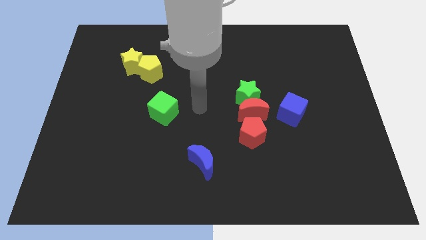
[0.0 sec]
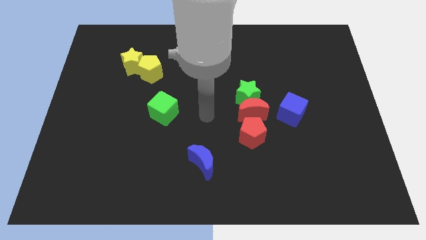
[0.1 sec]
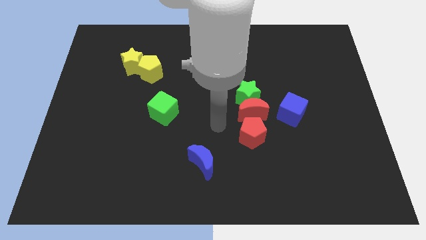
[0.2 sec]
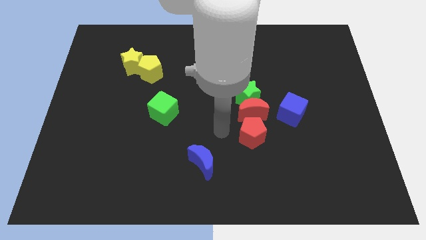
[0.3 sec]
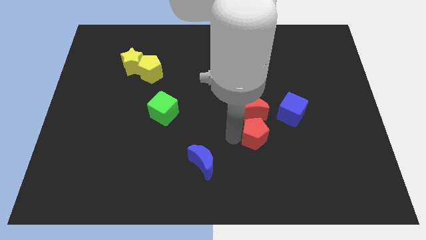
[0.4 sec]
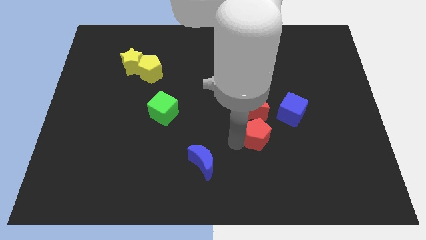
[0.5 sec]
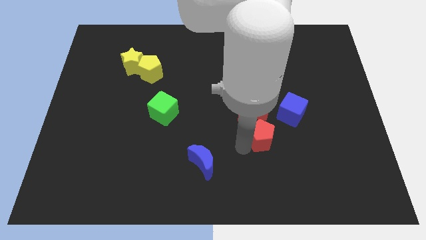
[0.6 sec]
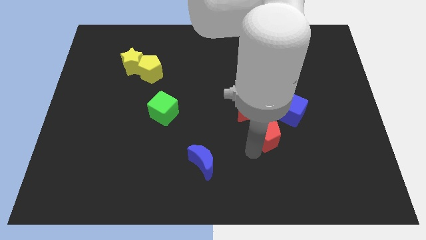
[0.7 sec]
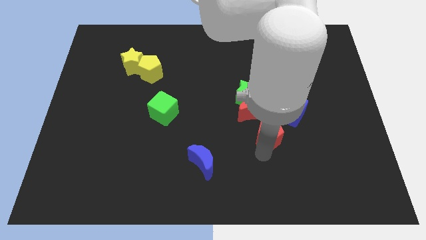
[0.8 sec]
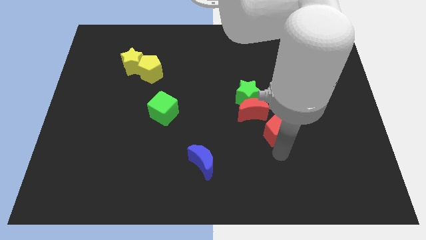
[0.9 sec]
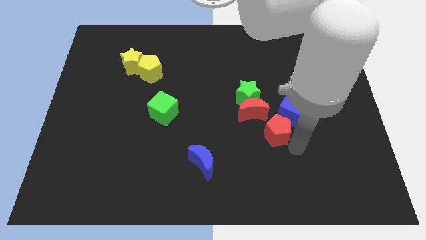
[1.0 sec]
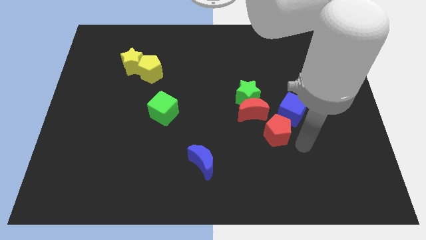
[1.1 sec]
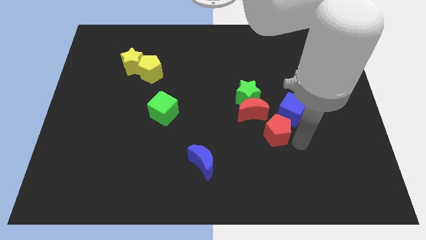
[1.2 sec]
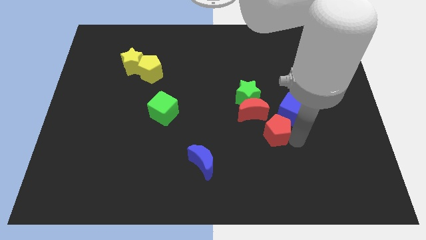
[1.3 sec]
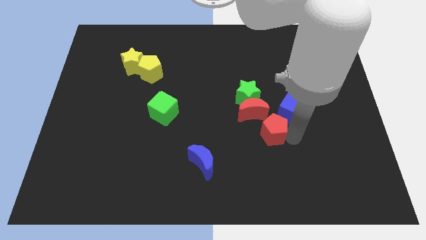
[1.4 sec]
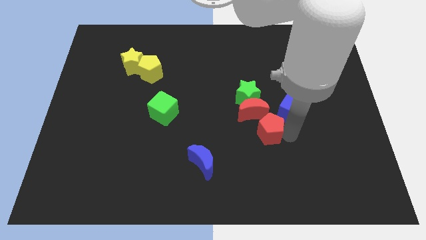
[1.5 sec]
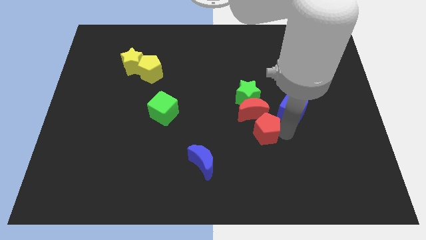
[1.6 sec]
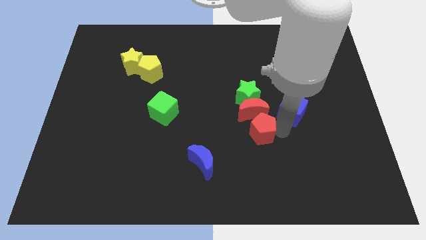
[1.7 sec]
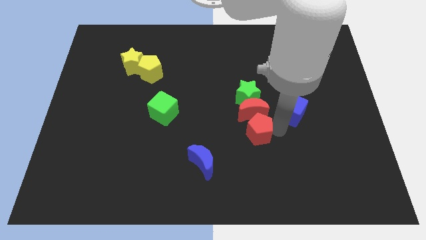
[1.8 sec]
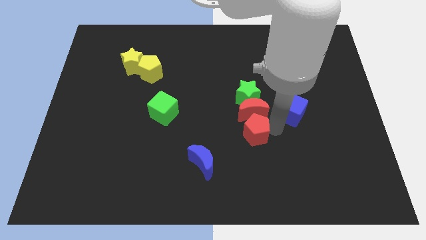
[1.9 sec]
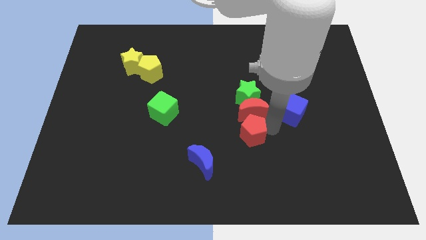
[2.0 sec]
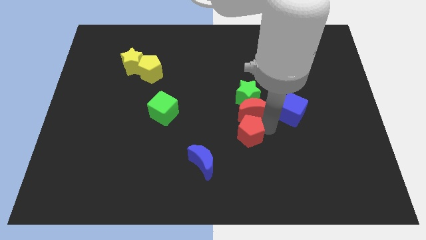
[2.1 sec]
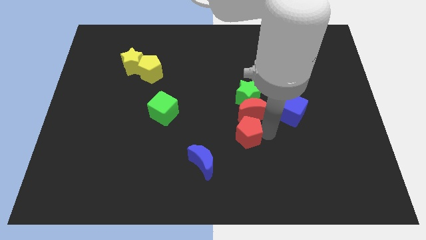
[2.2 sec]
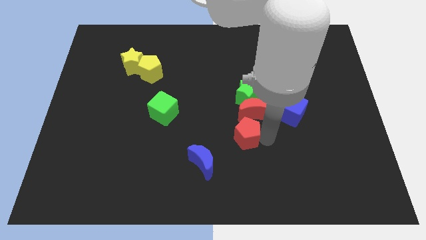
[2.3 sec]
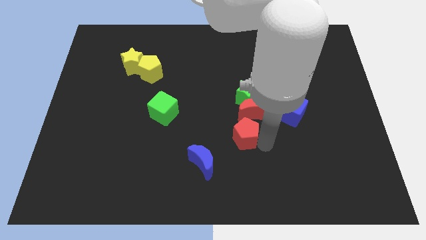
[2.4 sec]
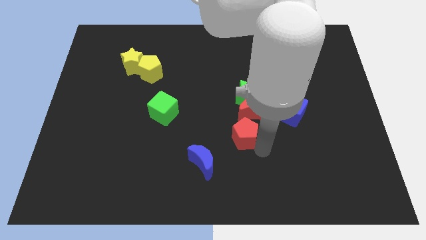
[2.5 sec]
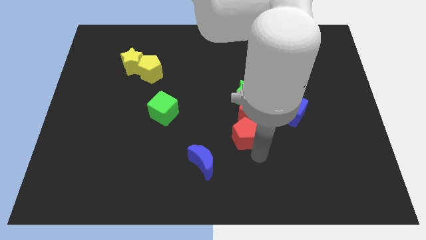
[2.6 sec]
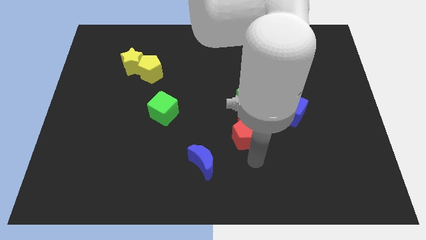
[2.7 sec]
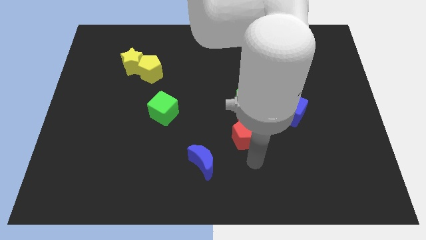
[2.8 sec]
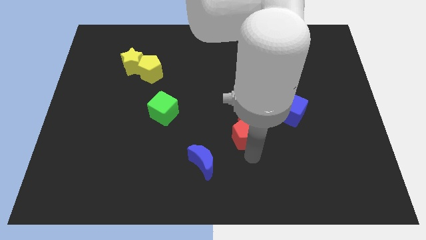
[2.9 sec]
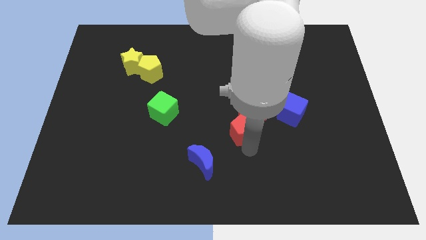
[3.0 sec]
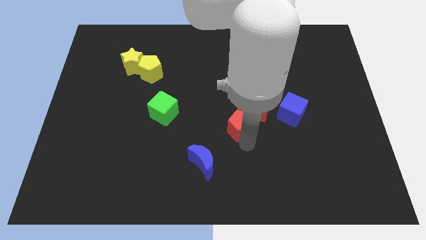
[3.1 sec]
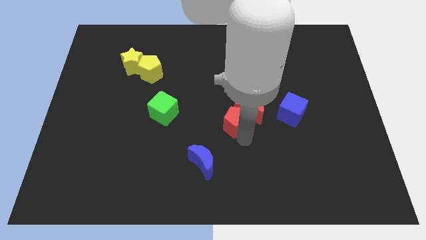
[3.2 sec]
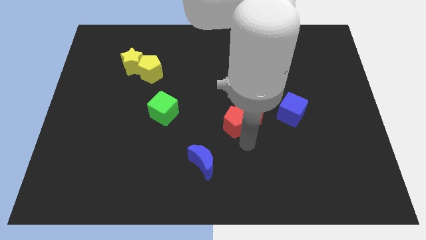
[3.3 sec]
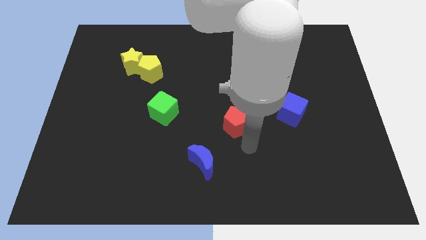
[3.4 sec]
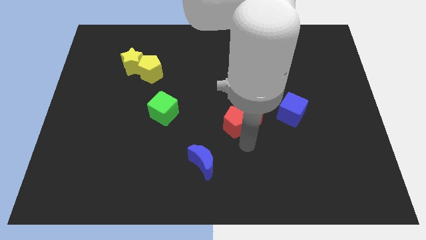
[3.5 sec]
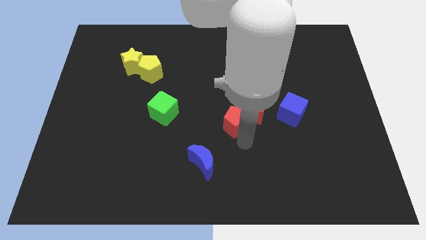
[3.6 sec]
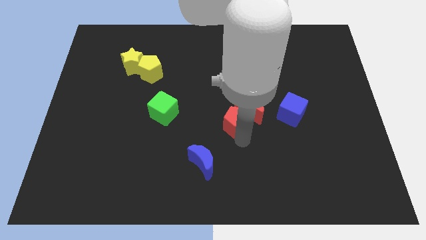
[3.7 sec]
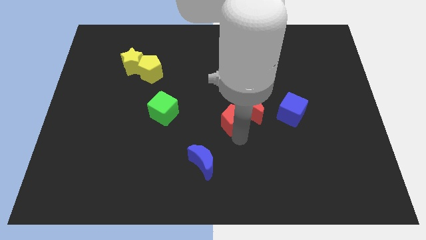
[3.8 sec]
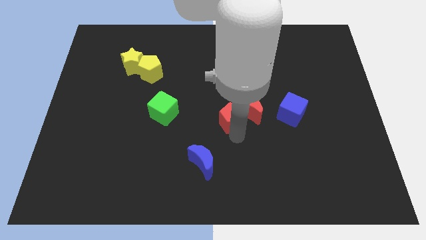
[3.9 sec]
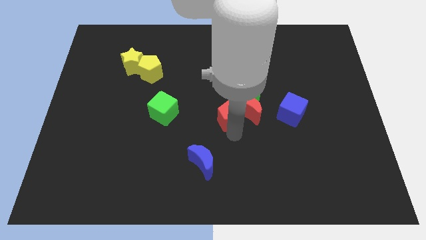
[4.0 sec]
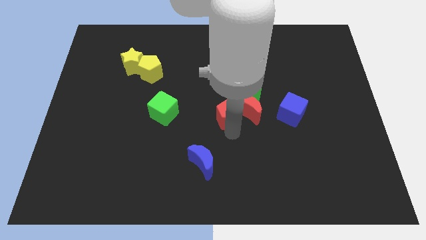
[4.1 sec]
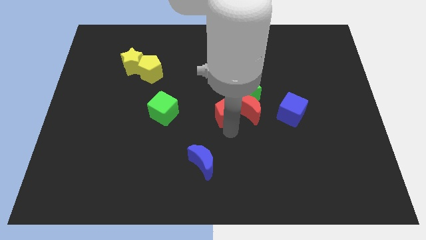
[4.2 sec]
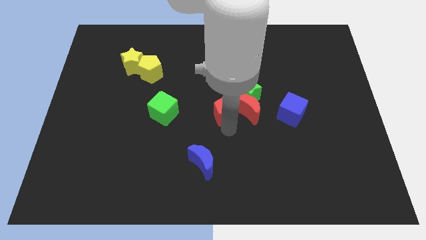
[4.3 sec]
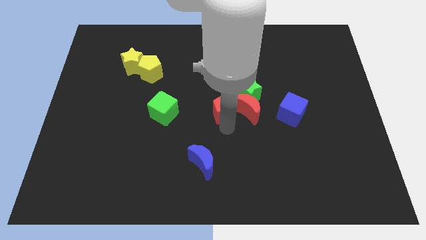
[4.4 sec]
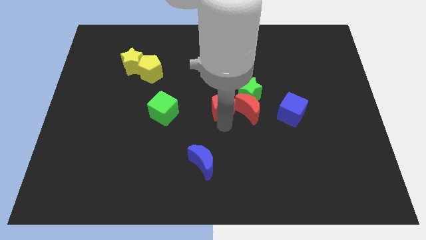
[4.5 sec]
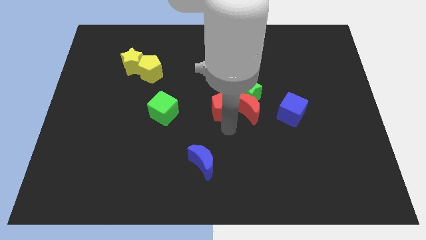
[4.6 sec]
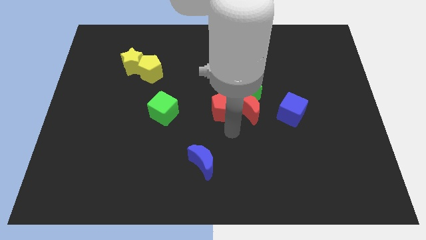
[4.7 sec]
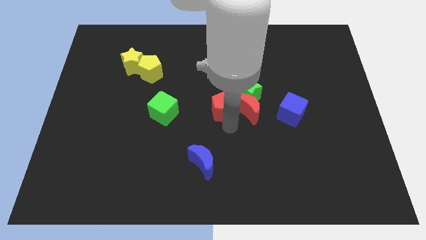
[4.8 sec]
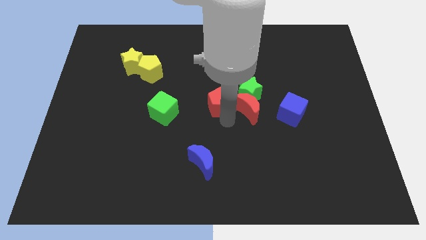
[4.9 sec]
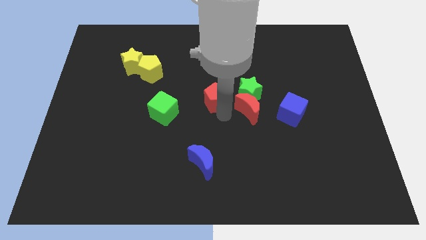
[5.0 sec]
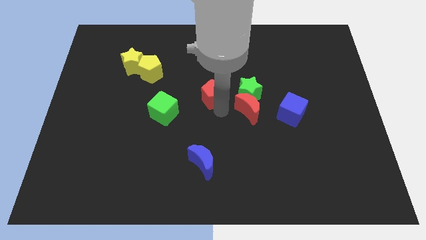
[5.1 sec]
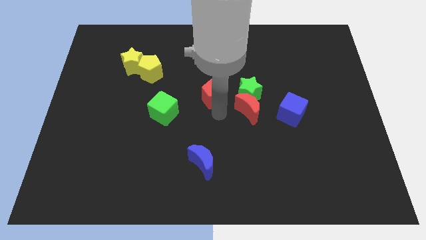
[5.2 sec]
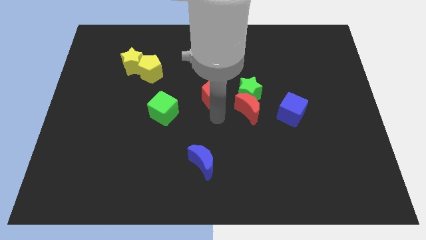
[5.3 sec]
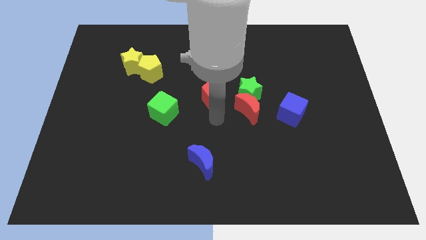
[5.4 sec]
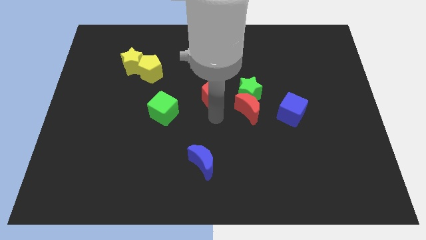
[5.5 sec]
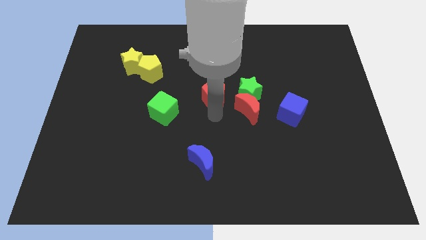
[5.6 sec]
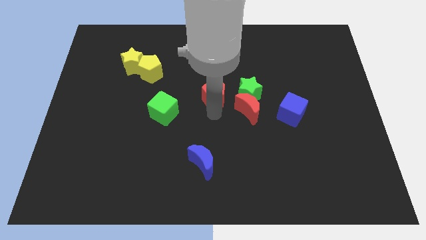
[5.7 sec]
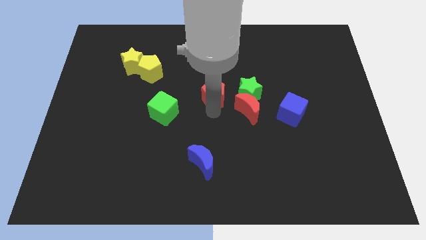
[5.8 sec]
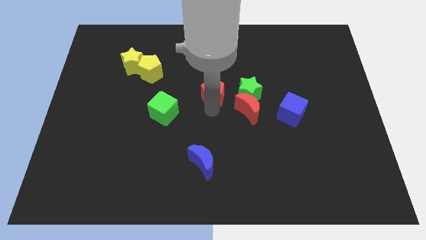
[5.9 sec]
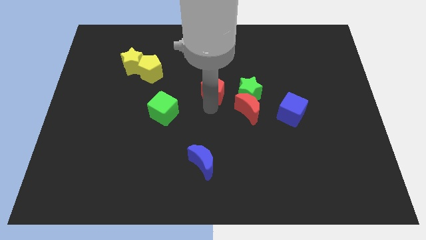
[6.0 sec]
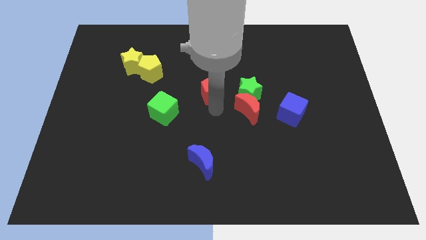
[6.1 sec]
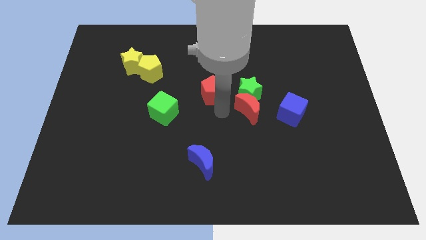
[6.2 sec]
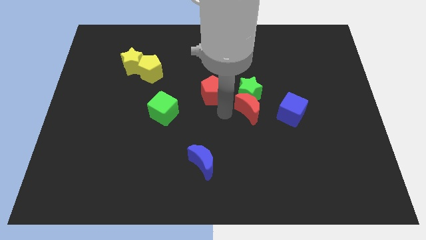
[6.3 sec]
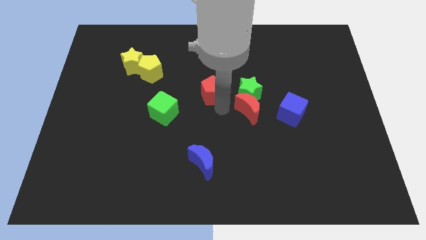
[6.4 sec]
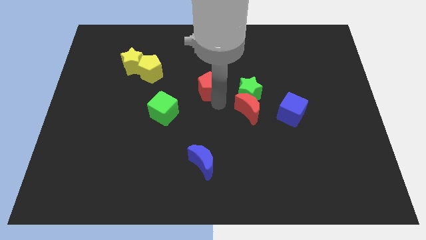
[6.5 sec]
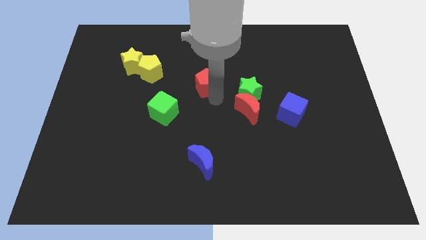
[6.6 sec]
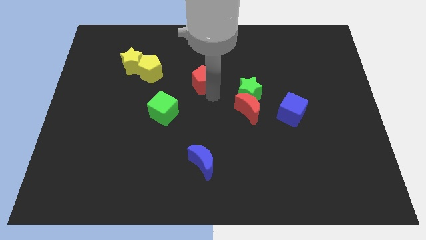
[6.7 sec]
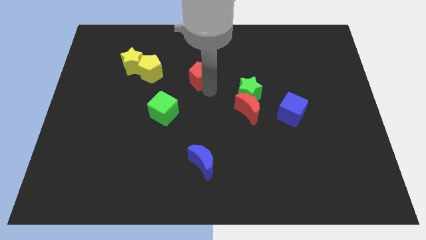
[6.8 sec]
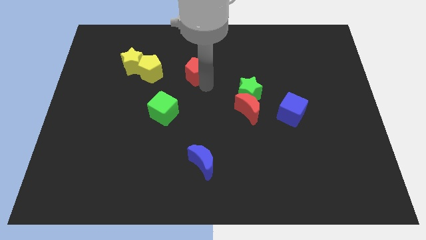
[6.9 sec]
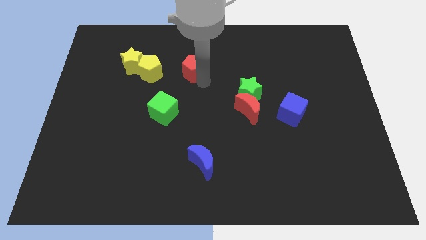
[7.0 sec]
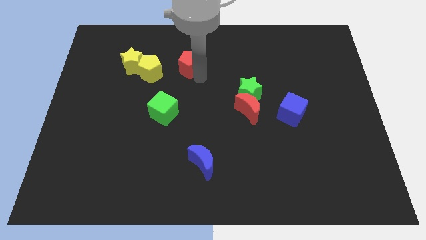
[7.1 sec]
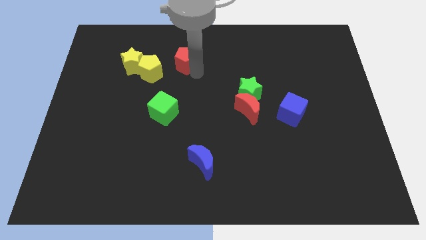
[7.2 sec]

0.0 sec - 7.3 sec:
put the red pentagon diagonally up and to the right of the yellow pentagon

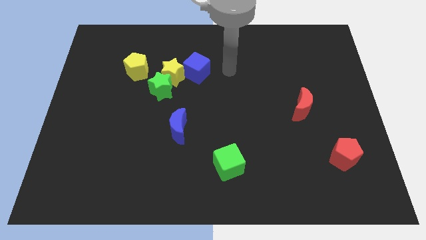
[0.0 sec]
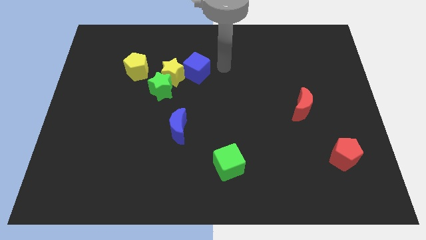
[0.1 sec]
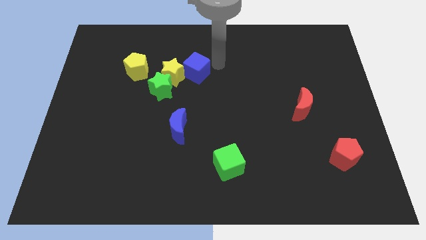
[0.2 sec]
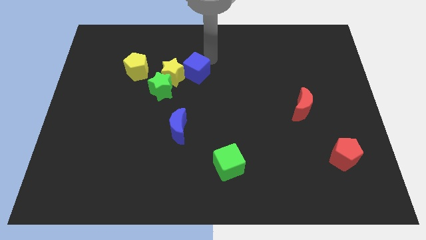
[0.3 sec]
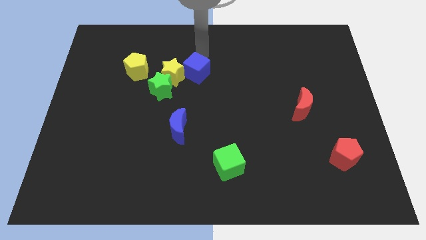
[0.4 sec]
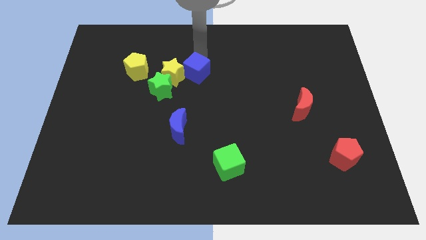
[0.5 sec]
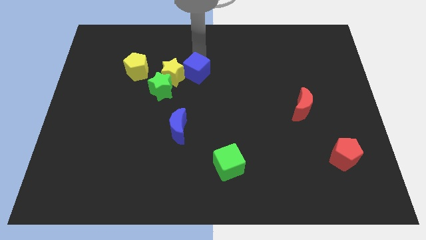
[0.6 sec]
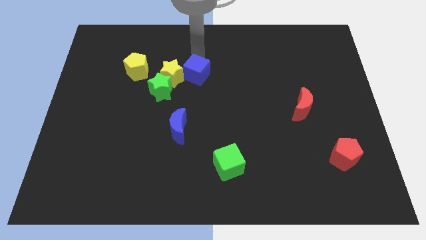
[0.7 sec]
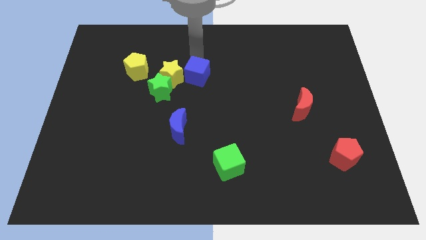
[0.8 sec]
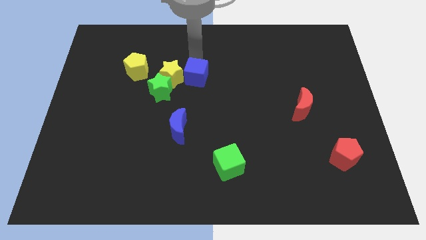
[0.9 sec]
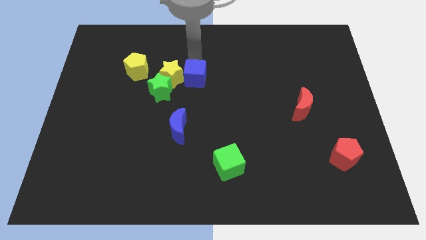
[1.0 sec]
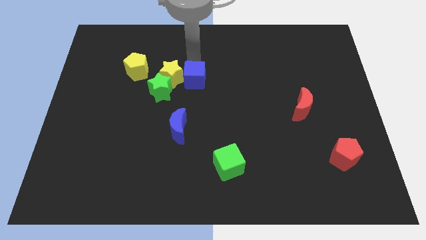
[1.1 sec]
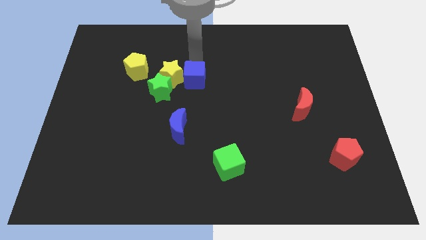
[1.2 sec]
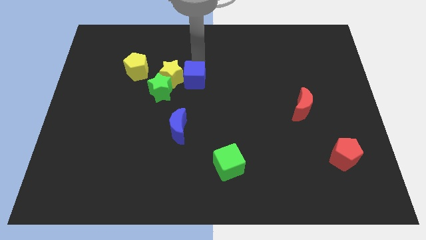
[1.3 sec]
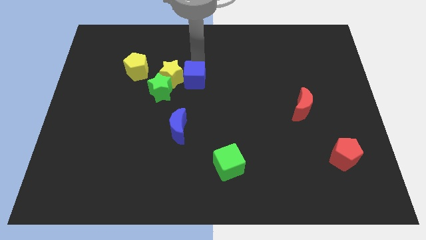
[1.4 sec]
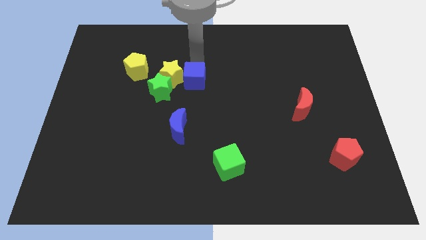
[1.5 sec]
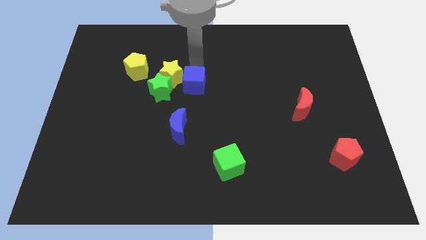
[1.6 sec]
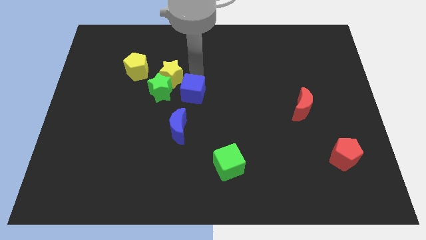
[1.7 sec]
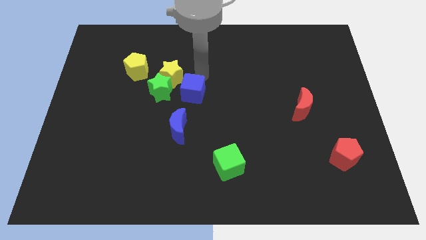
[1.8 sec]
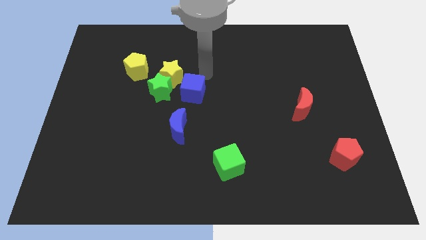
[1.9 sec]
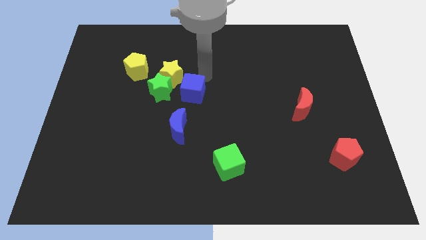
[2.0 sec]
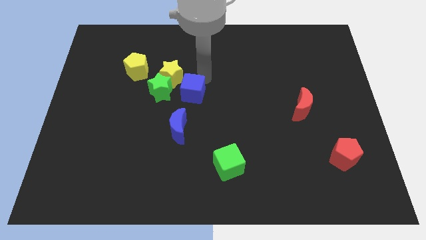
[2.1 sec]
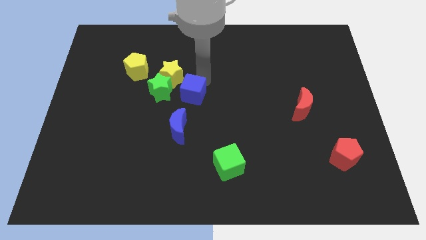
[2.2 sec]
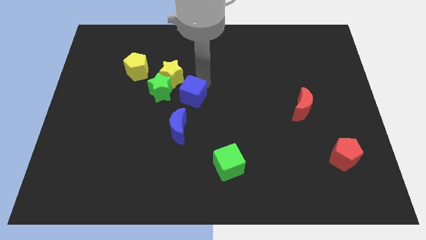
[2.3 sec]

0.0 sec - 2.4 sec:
put the blue cube to the bottom right side of the green star
